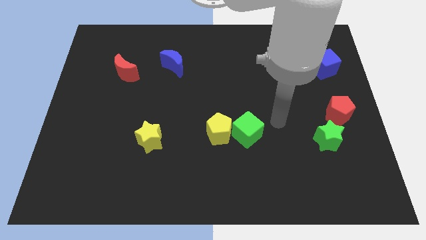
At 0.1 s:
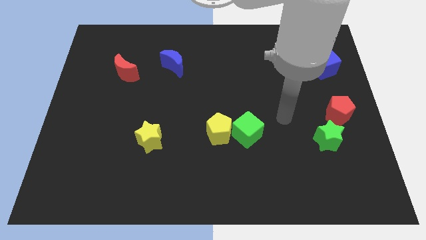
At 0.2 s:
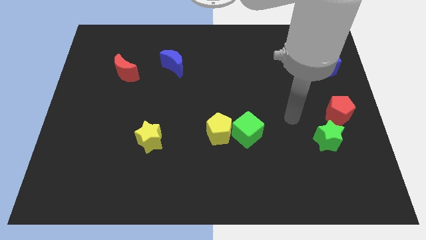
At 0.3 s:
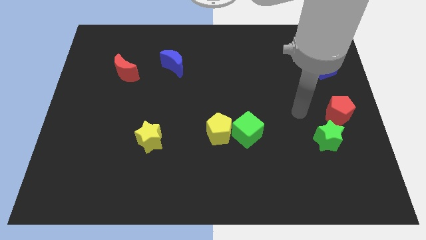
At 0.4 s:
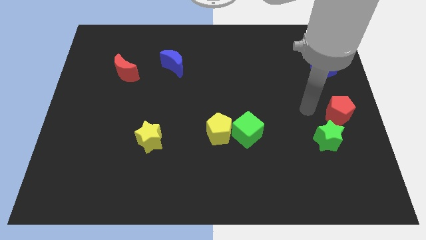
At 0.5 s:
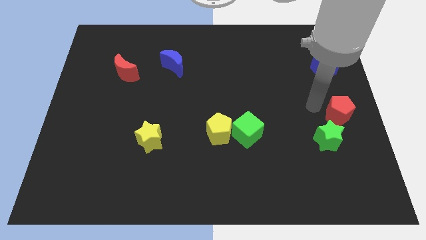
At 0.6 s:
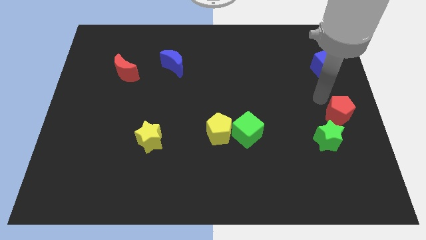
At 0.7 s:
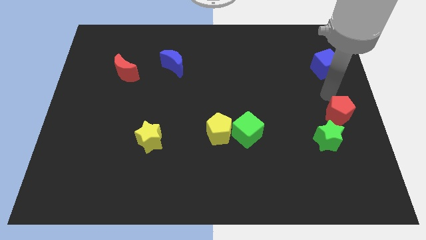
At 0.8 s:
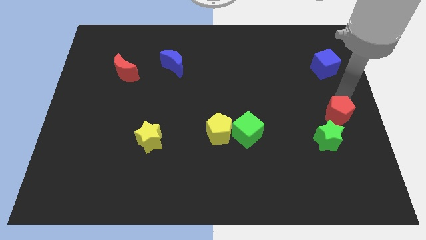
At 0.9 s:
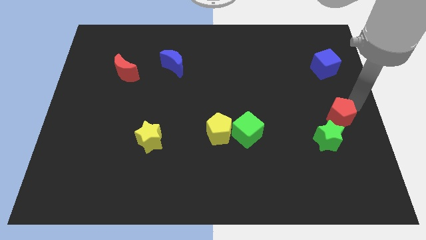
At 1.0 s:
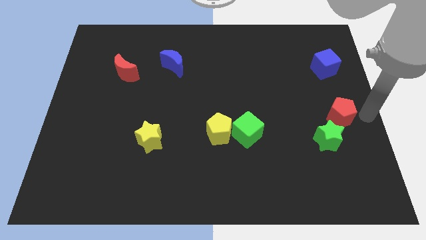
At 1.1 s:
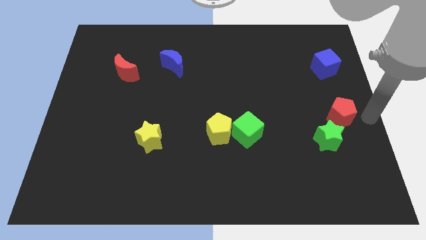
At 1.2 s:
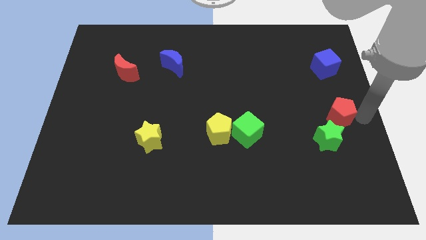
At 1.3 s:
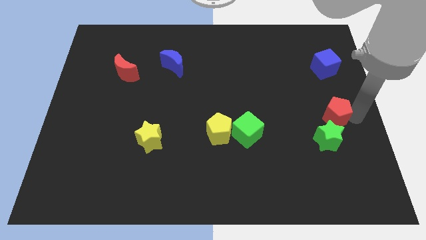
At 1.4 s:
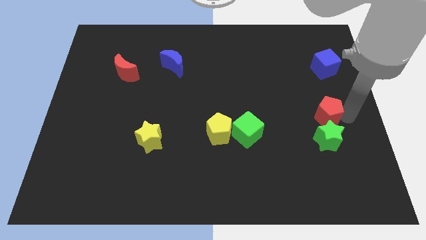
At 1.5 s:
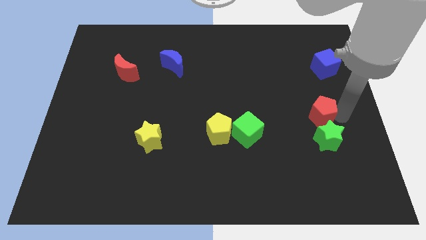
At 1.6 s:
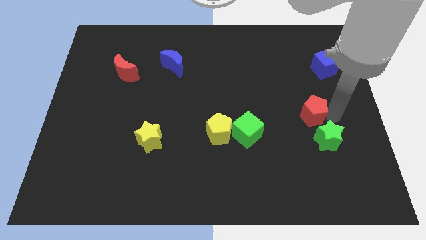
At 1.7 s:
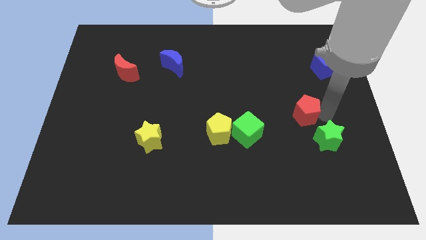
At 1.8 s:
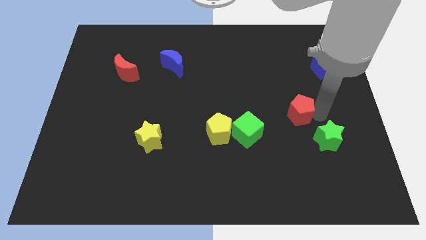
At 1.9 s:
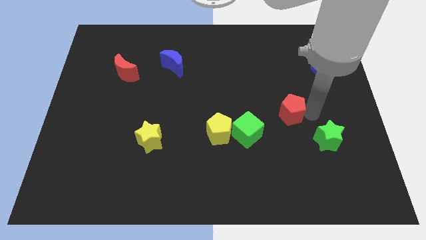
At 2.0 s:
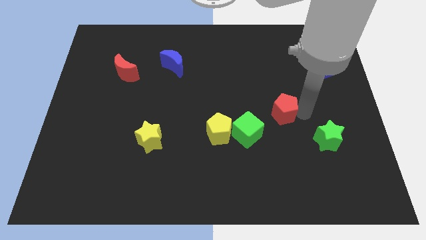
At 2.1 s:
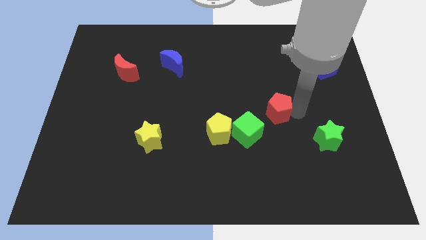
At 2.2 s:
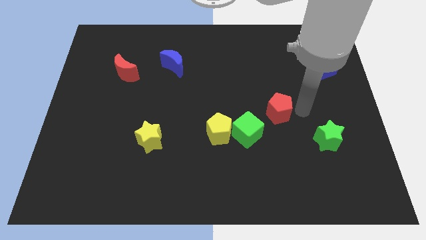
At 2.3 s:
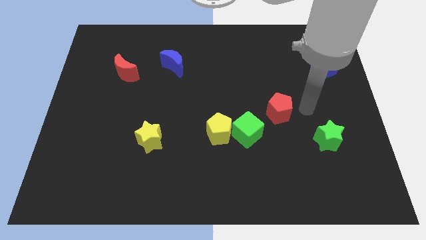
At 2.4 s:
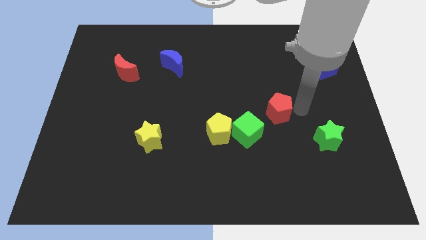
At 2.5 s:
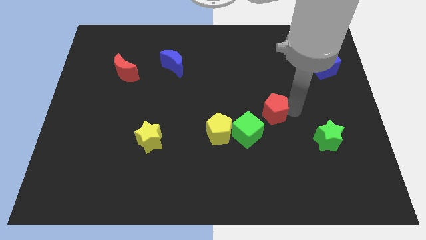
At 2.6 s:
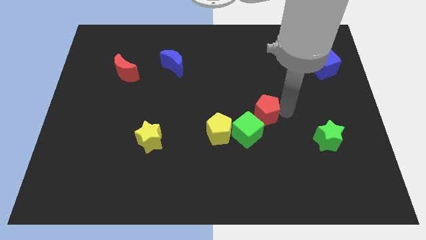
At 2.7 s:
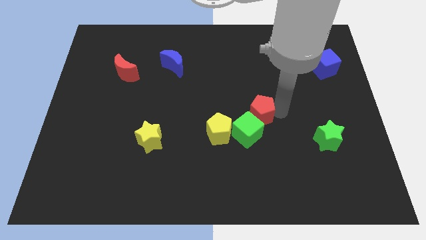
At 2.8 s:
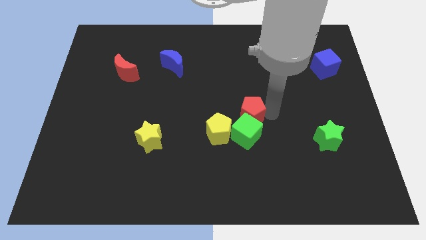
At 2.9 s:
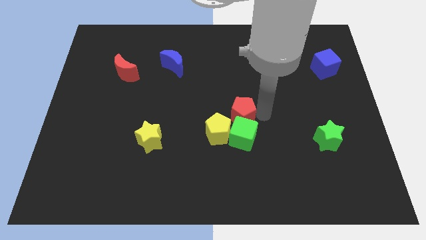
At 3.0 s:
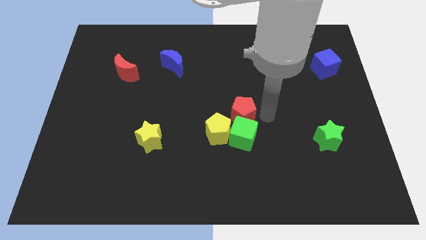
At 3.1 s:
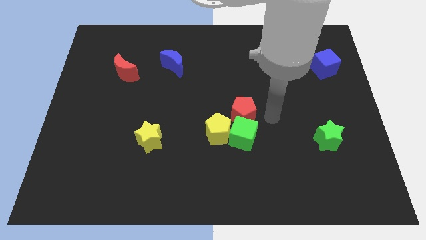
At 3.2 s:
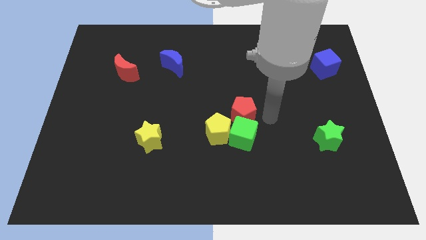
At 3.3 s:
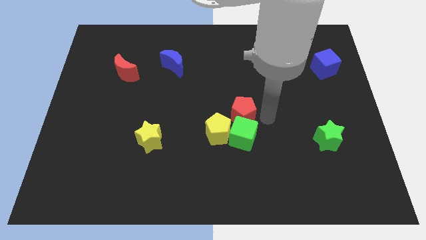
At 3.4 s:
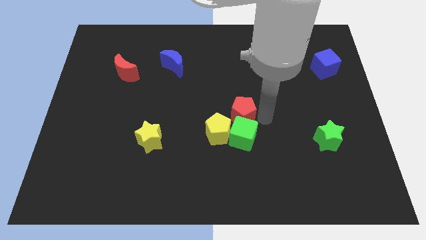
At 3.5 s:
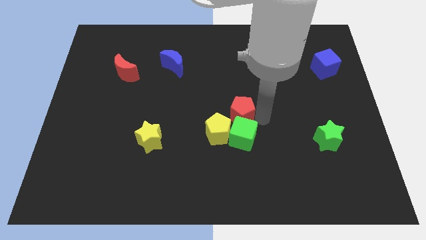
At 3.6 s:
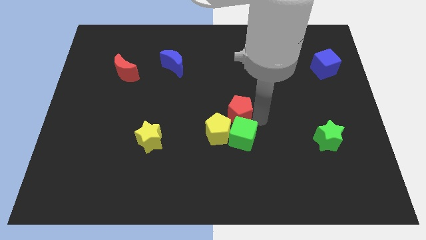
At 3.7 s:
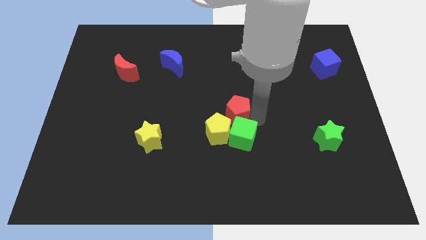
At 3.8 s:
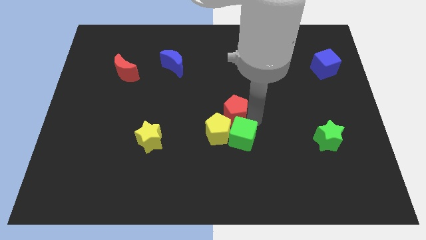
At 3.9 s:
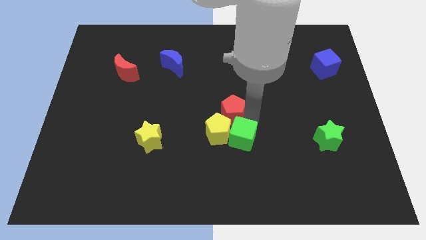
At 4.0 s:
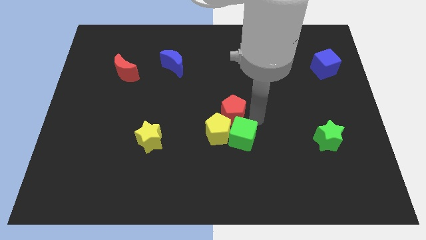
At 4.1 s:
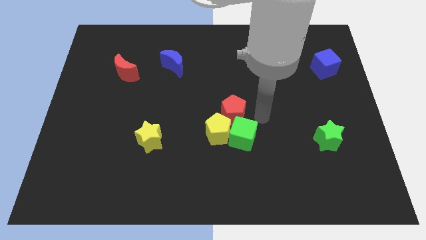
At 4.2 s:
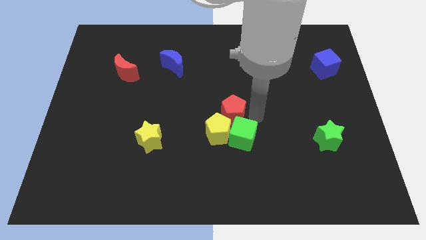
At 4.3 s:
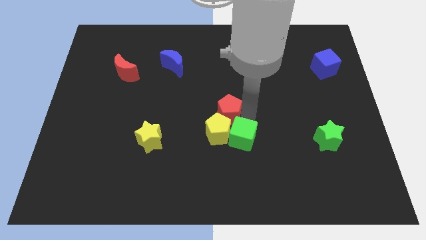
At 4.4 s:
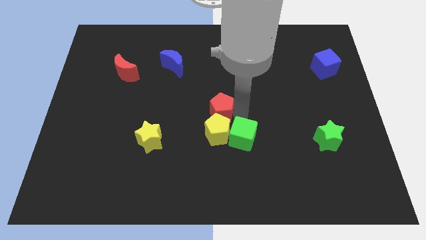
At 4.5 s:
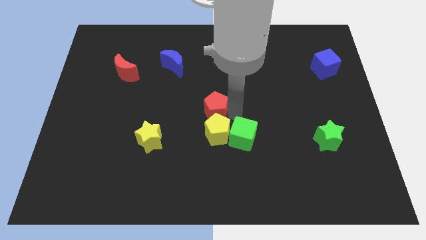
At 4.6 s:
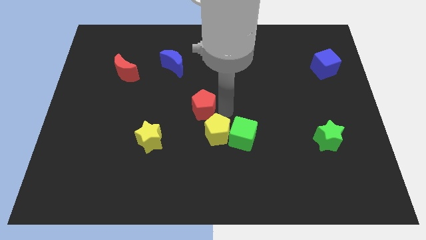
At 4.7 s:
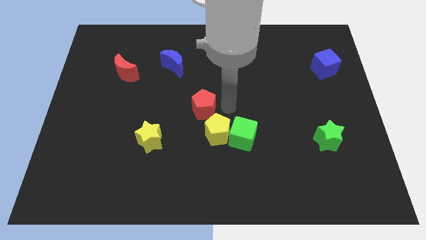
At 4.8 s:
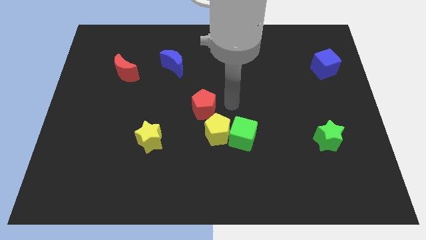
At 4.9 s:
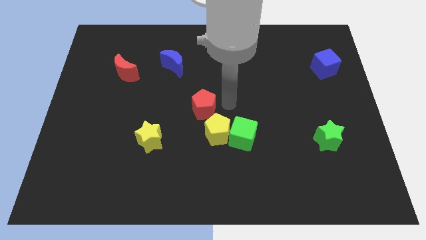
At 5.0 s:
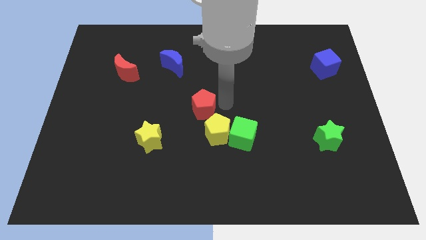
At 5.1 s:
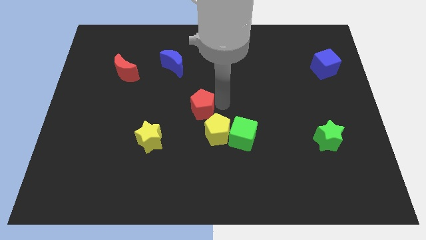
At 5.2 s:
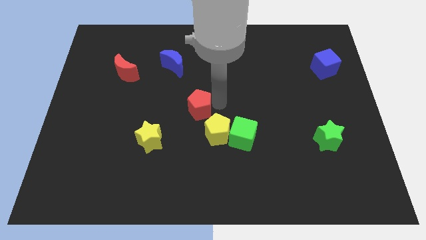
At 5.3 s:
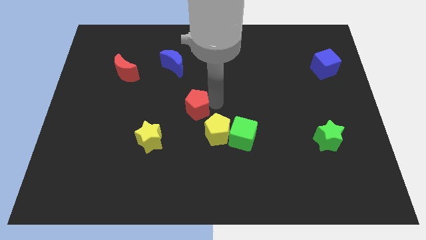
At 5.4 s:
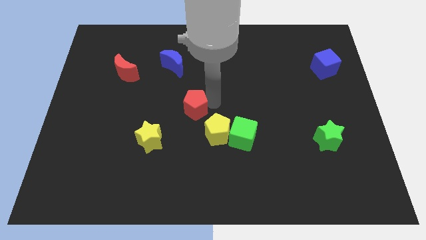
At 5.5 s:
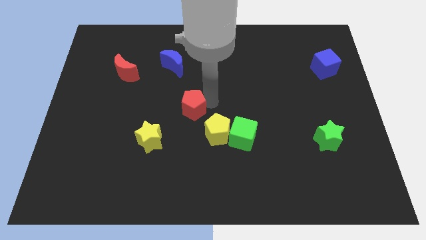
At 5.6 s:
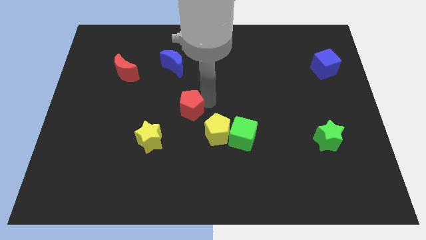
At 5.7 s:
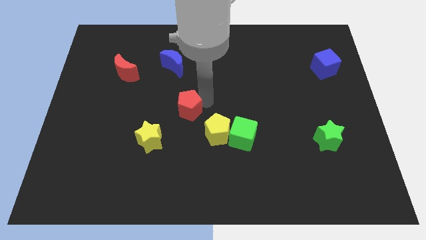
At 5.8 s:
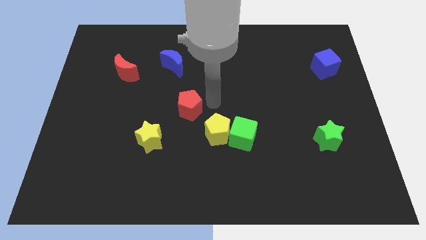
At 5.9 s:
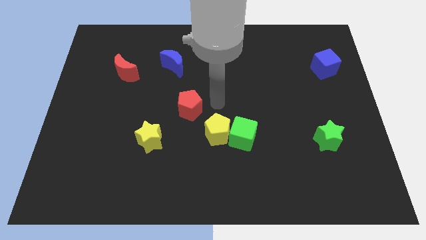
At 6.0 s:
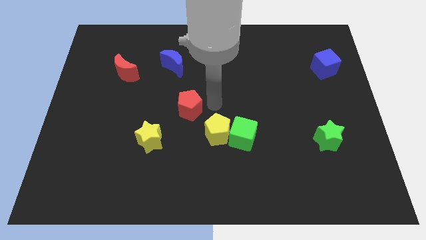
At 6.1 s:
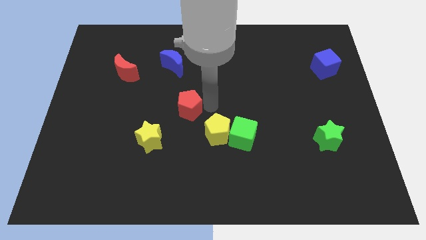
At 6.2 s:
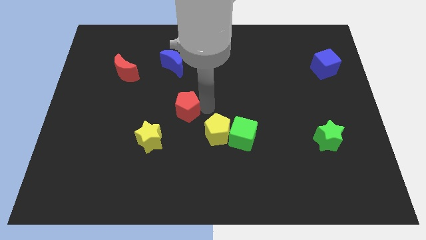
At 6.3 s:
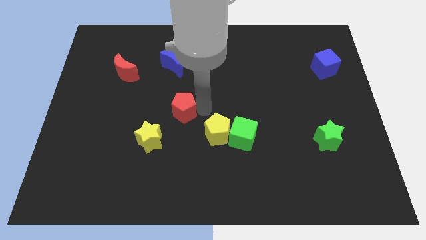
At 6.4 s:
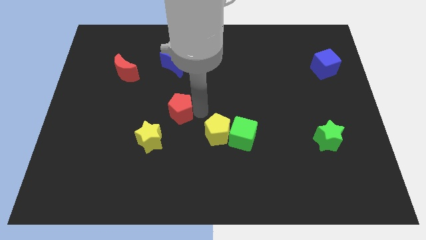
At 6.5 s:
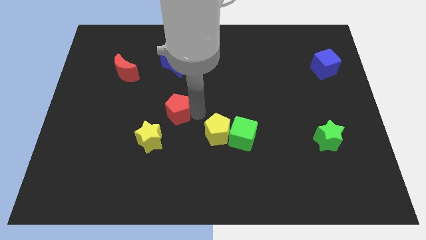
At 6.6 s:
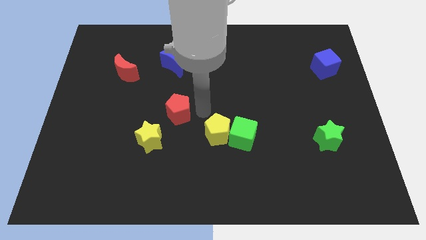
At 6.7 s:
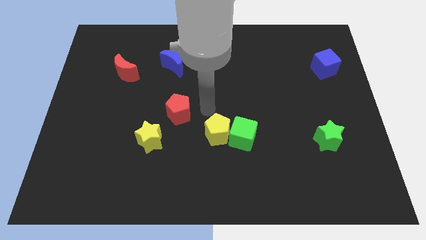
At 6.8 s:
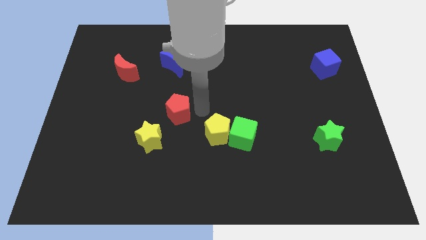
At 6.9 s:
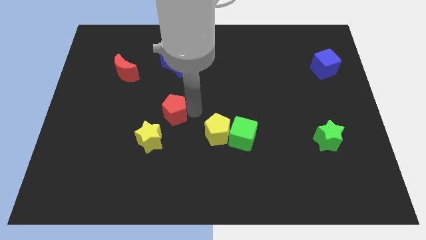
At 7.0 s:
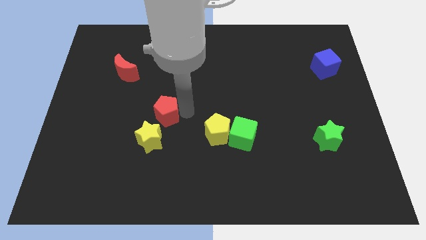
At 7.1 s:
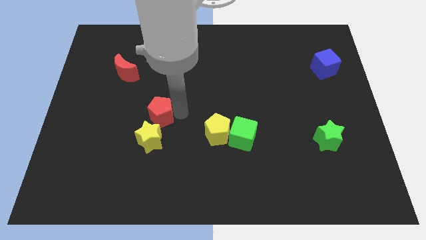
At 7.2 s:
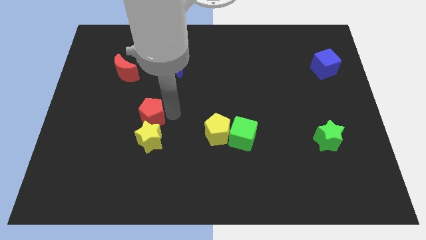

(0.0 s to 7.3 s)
put the red pentagon to the top left of the yellow star
